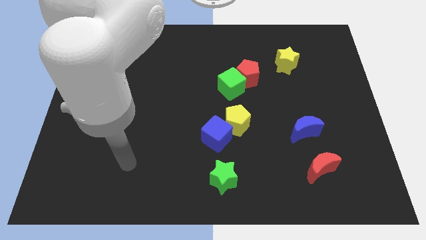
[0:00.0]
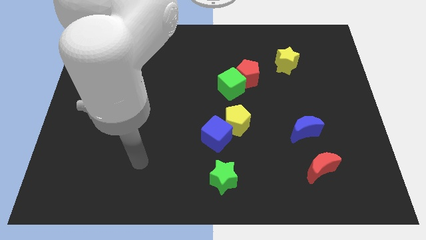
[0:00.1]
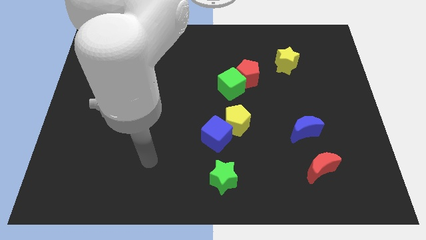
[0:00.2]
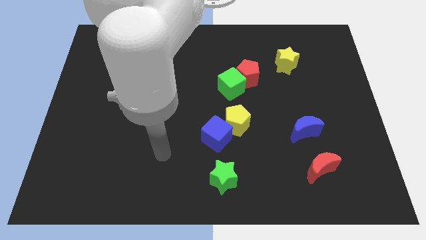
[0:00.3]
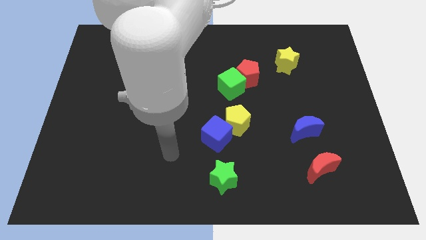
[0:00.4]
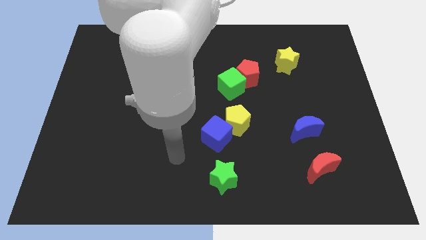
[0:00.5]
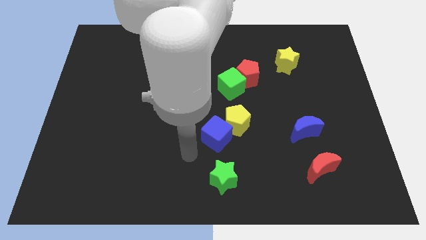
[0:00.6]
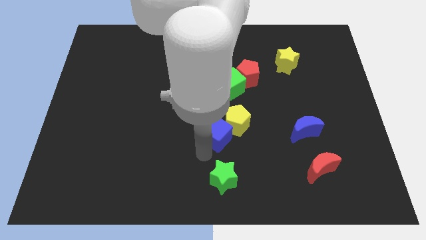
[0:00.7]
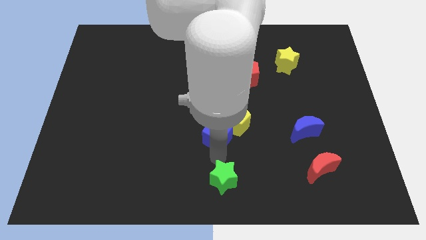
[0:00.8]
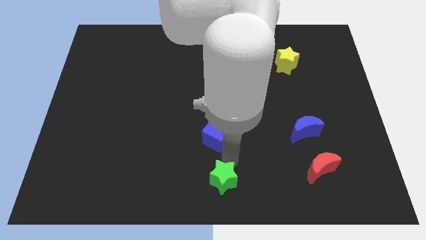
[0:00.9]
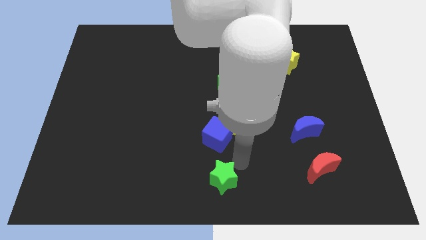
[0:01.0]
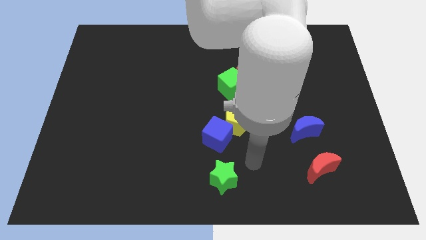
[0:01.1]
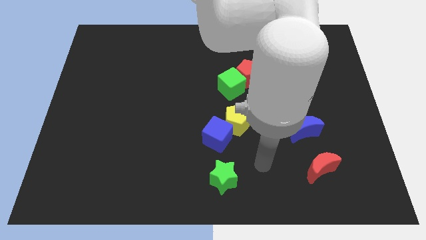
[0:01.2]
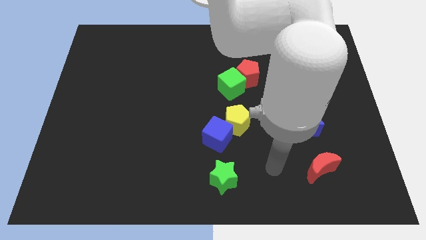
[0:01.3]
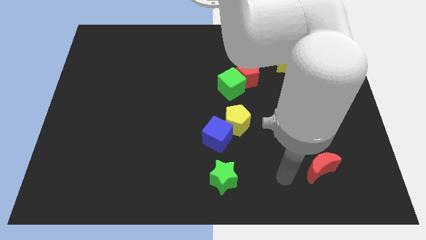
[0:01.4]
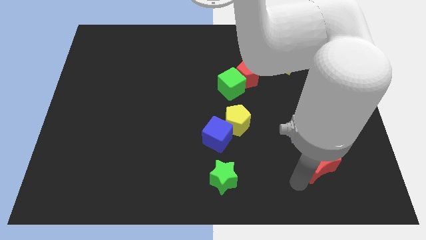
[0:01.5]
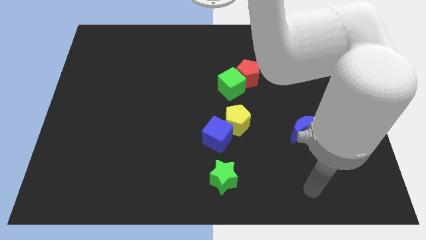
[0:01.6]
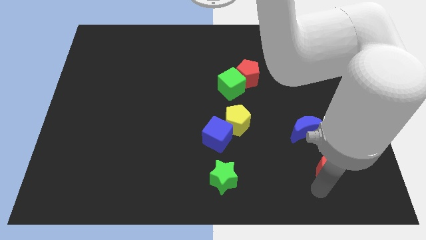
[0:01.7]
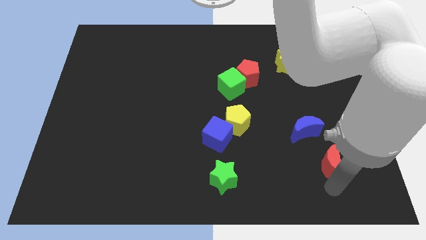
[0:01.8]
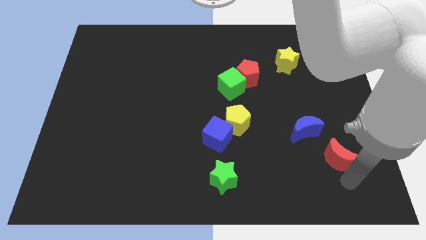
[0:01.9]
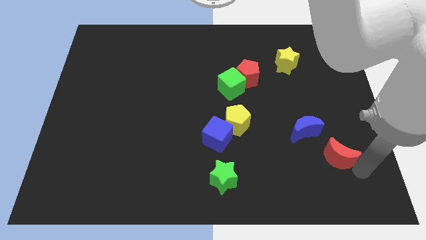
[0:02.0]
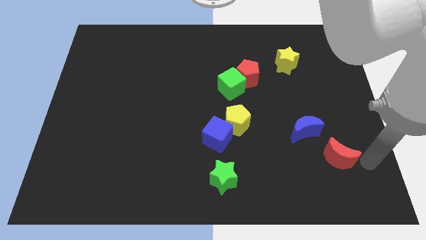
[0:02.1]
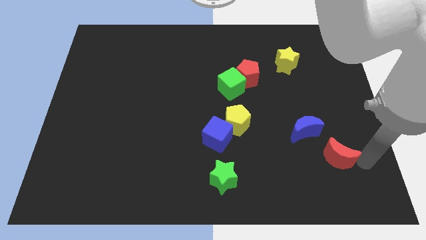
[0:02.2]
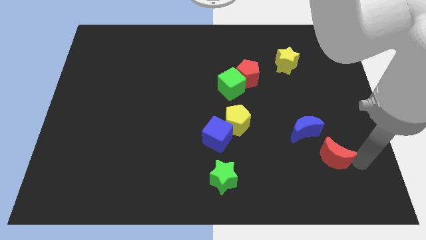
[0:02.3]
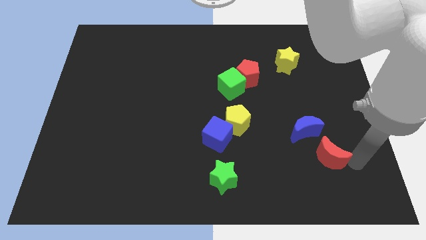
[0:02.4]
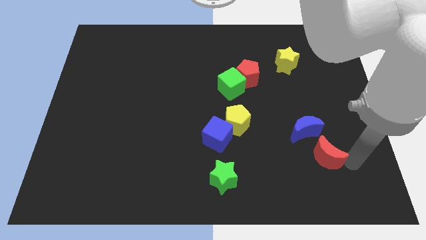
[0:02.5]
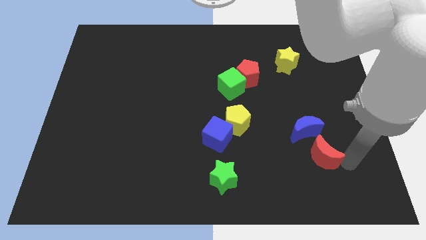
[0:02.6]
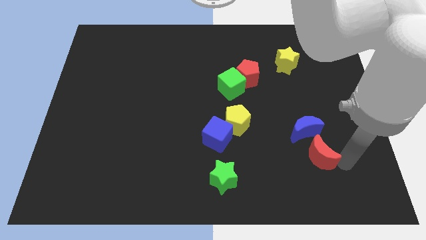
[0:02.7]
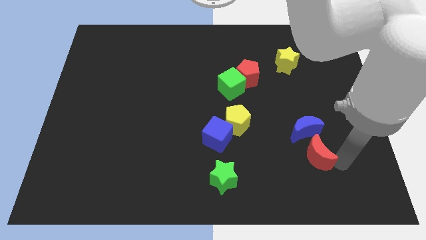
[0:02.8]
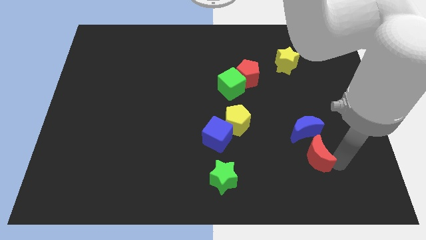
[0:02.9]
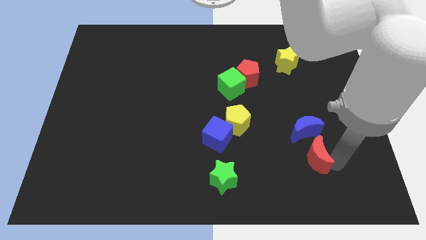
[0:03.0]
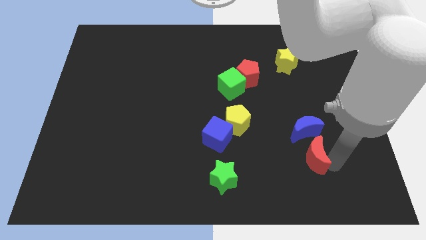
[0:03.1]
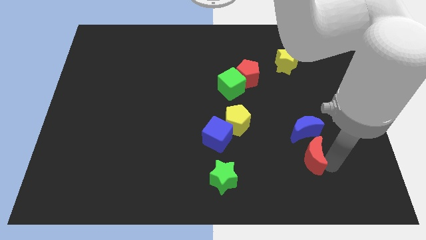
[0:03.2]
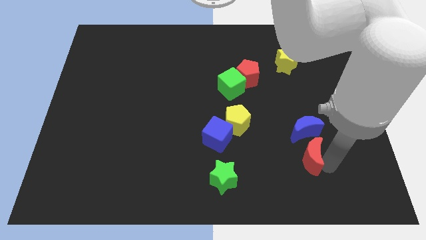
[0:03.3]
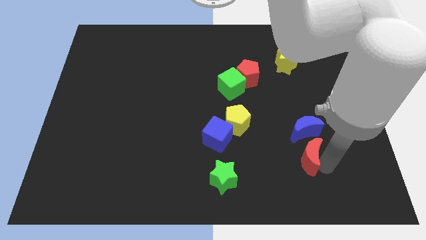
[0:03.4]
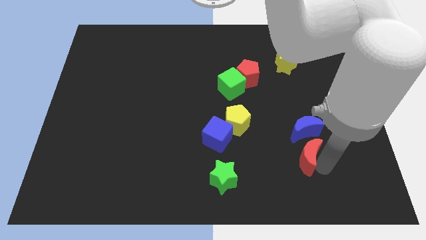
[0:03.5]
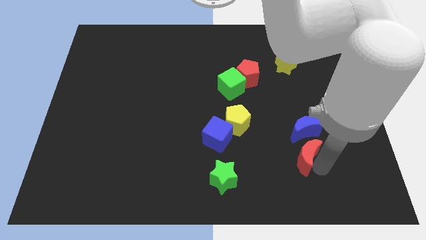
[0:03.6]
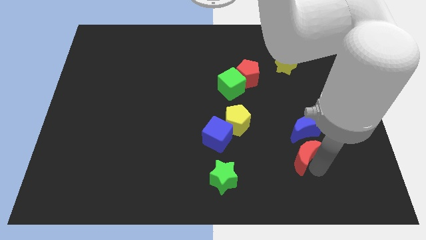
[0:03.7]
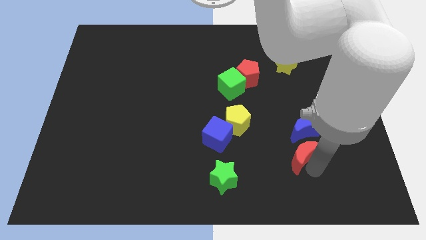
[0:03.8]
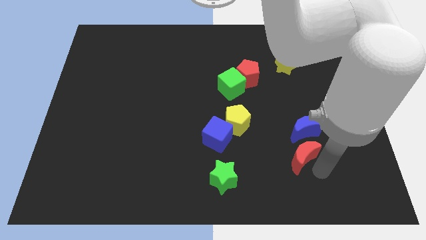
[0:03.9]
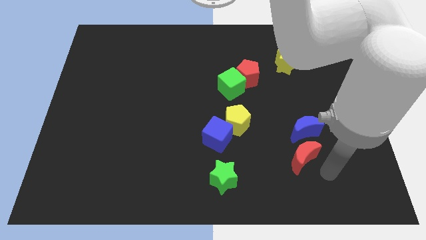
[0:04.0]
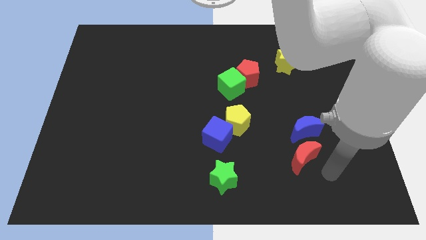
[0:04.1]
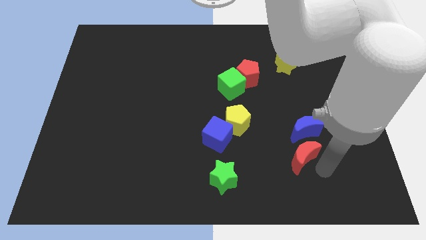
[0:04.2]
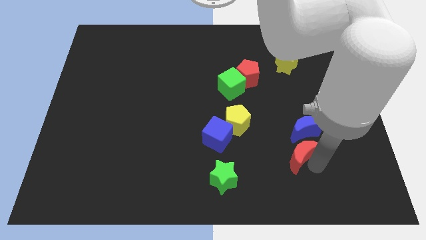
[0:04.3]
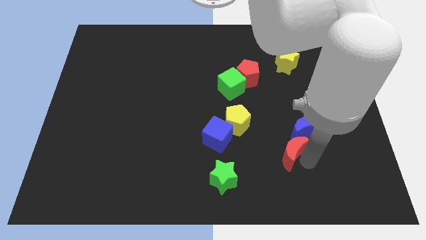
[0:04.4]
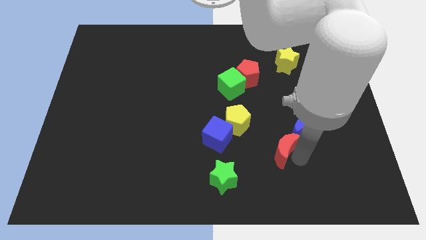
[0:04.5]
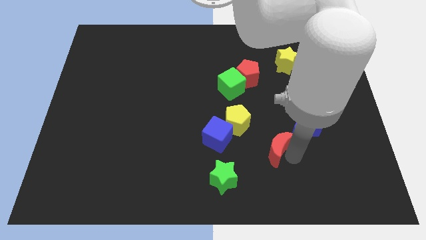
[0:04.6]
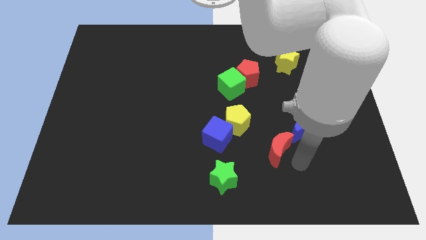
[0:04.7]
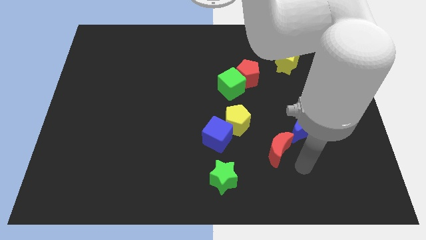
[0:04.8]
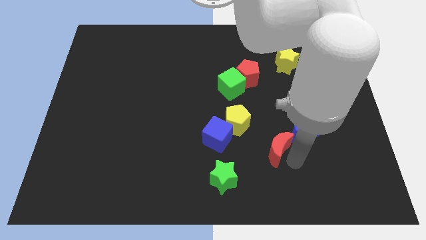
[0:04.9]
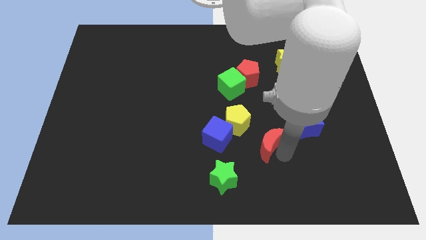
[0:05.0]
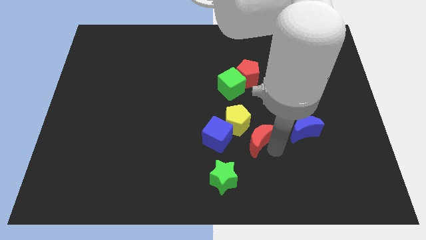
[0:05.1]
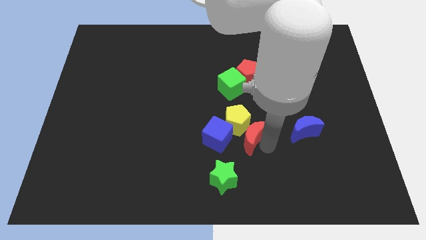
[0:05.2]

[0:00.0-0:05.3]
push the red moon close to the yellow pentagon

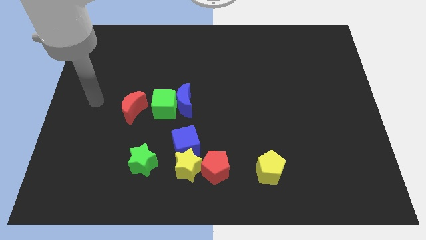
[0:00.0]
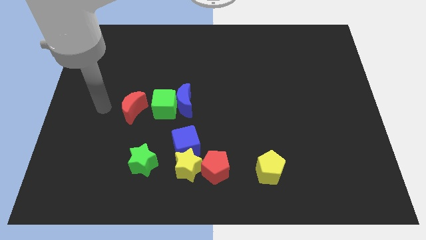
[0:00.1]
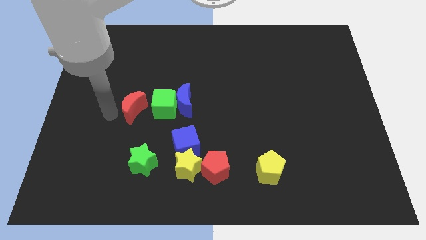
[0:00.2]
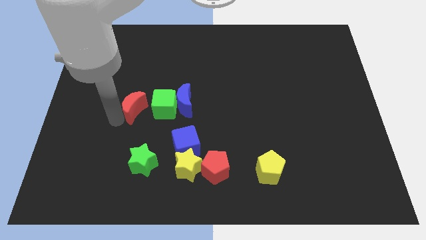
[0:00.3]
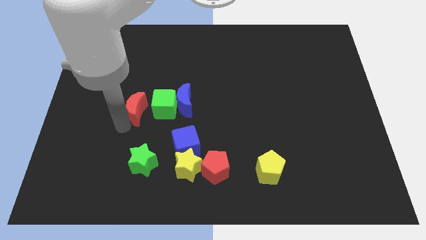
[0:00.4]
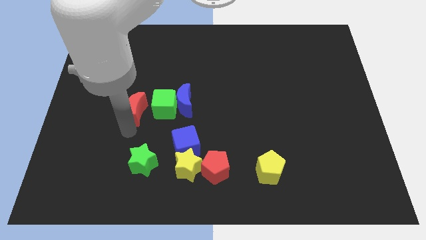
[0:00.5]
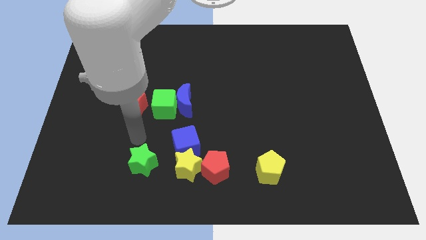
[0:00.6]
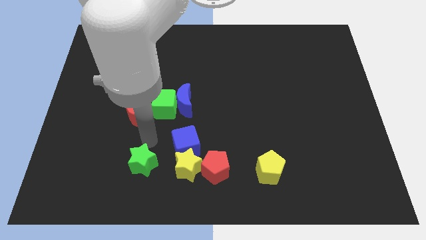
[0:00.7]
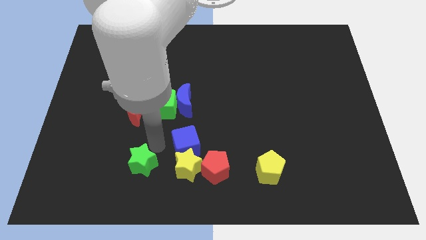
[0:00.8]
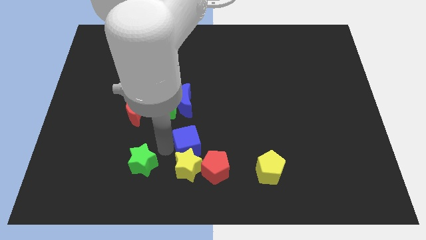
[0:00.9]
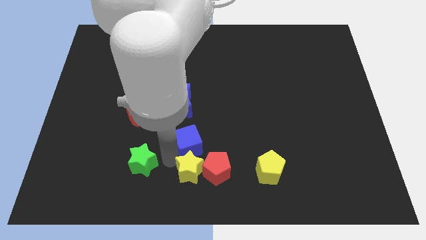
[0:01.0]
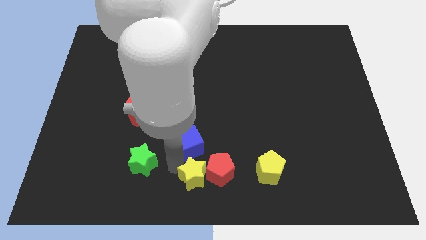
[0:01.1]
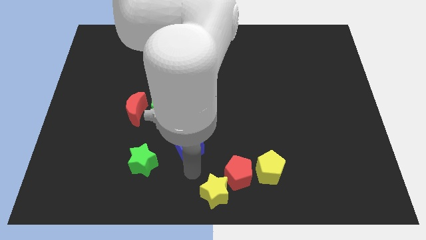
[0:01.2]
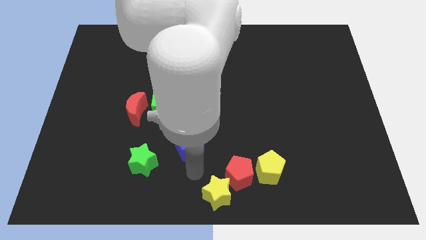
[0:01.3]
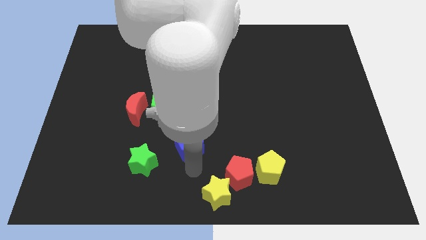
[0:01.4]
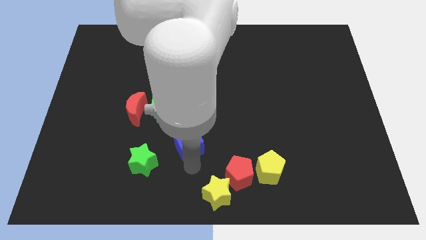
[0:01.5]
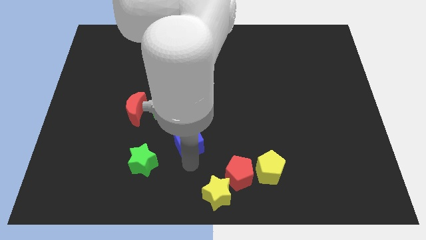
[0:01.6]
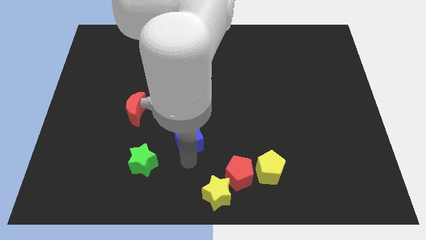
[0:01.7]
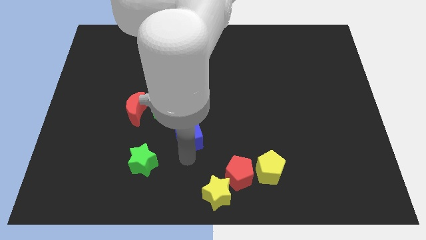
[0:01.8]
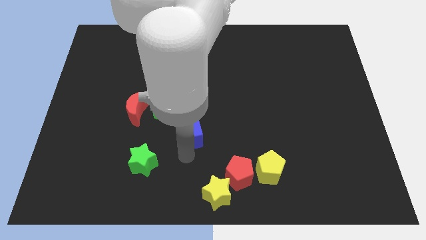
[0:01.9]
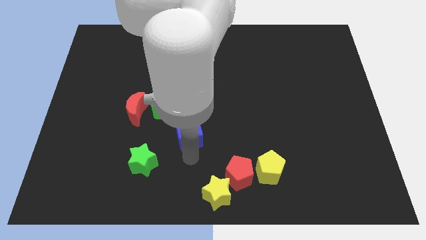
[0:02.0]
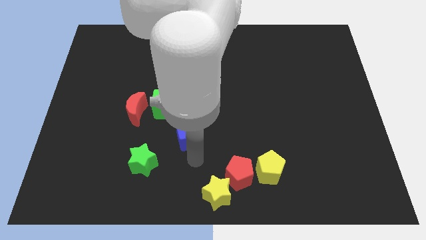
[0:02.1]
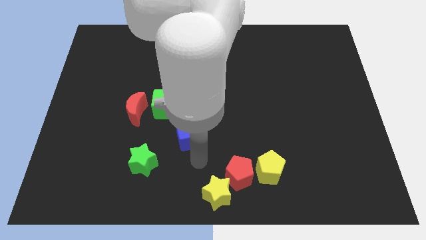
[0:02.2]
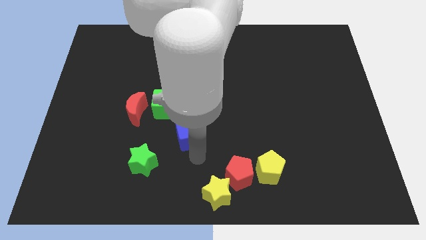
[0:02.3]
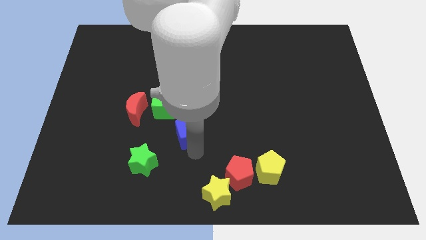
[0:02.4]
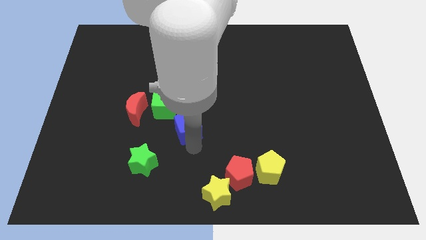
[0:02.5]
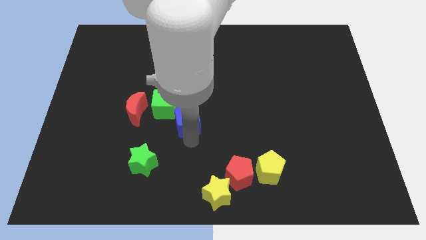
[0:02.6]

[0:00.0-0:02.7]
put the blue cube close to the blue moon
